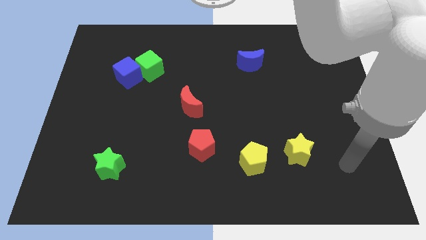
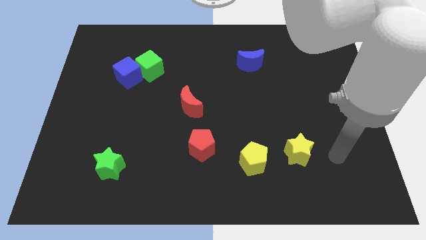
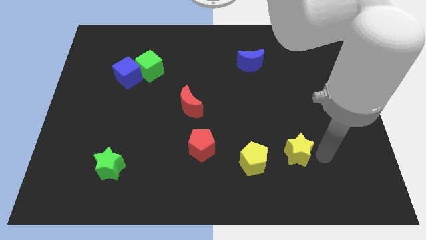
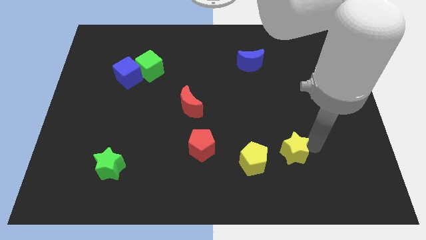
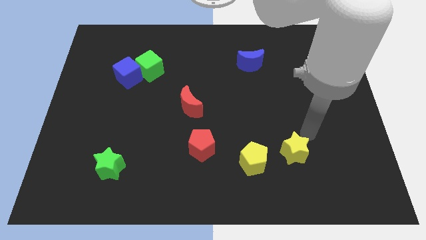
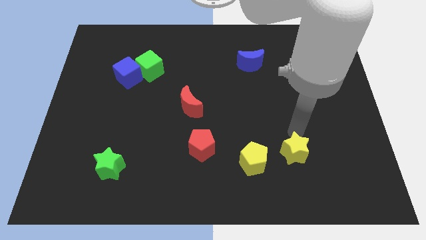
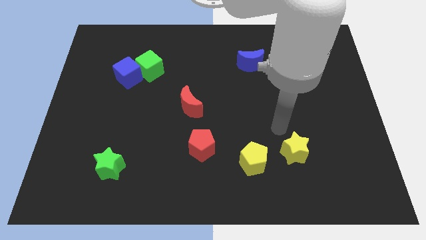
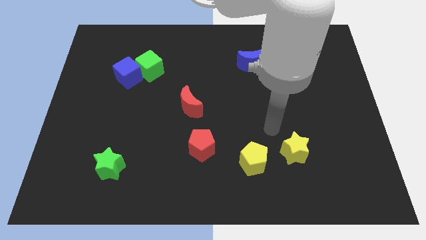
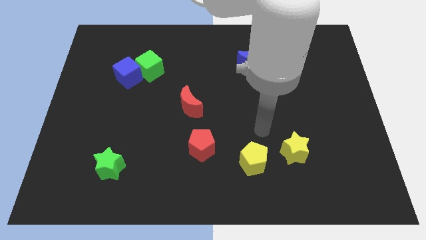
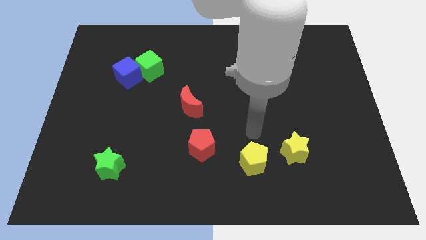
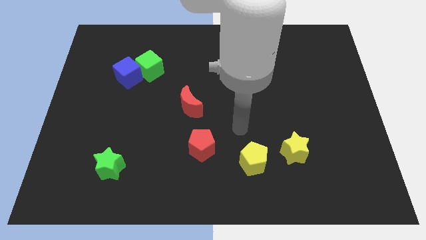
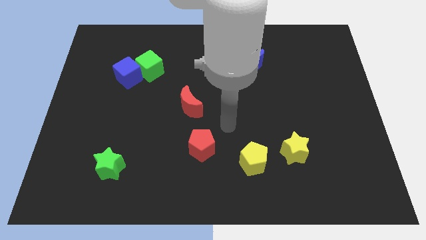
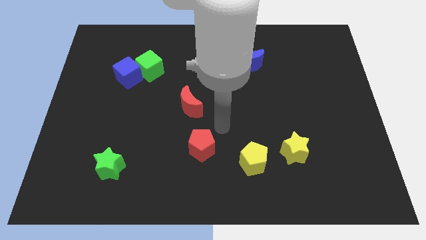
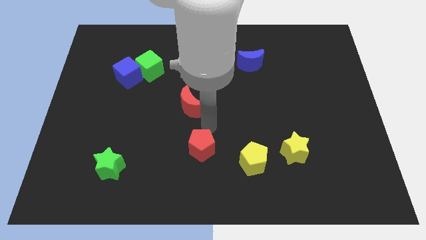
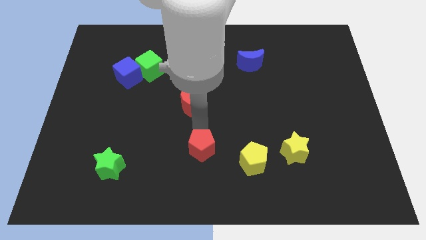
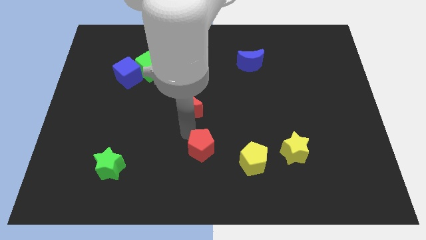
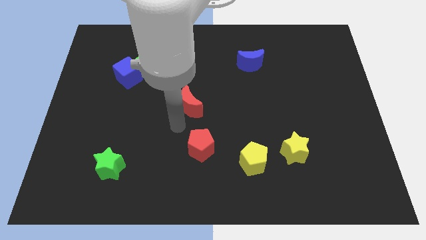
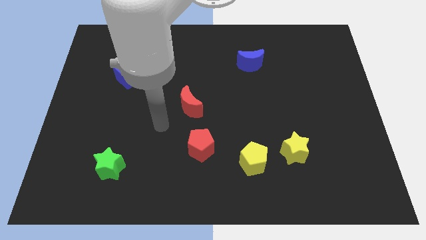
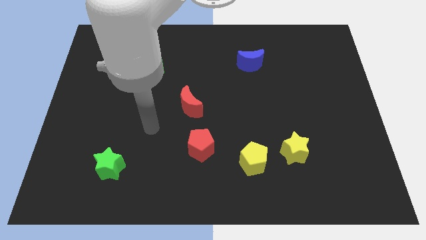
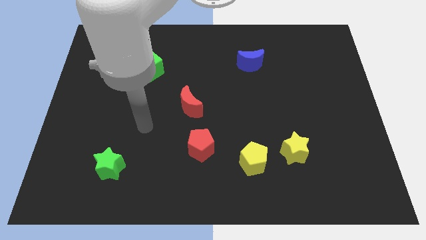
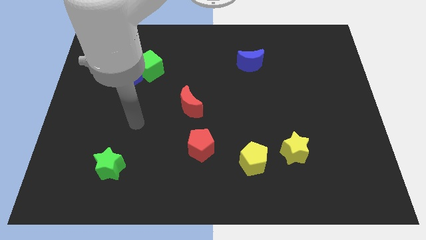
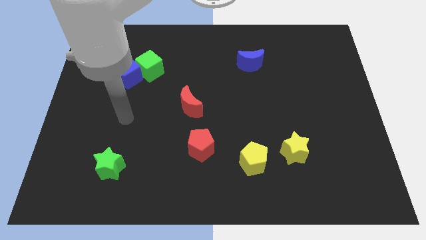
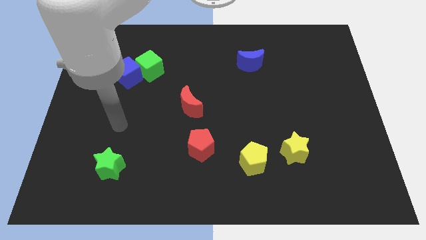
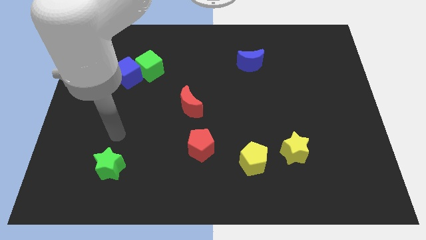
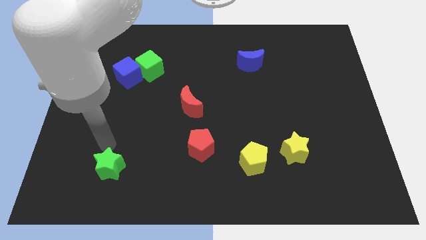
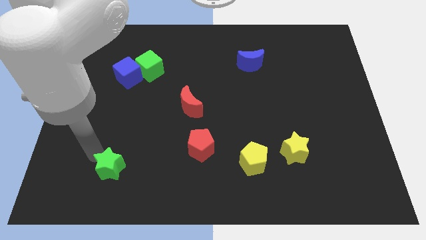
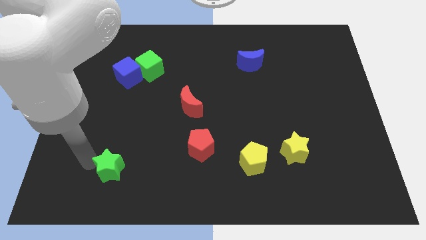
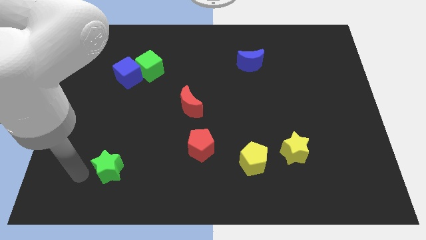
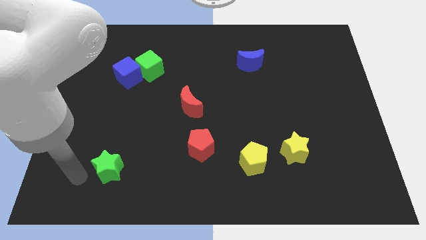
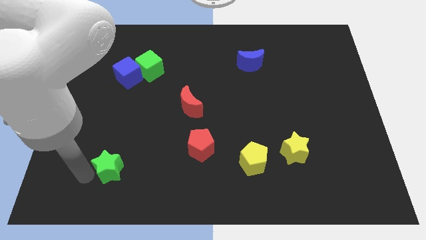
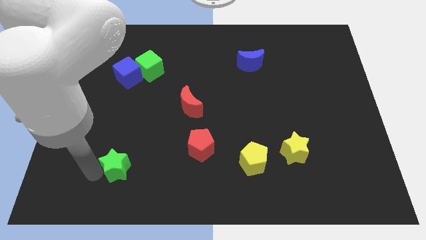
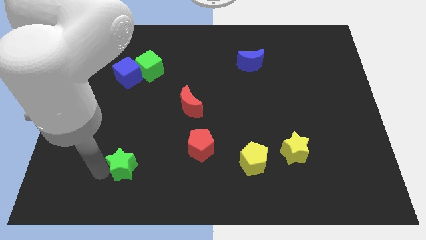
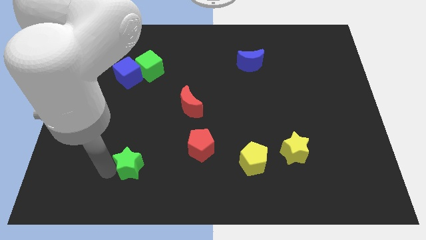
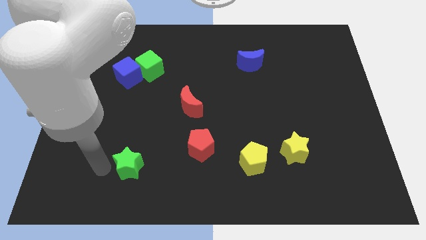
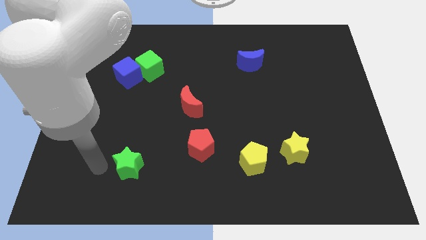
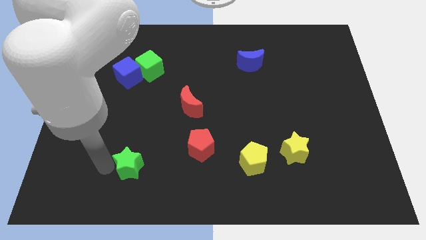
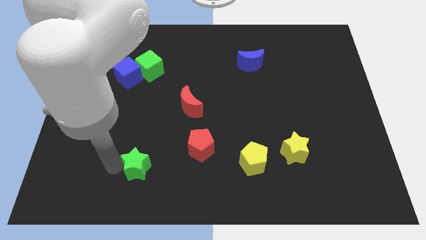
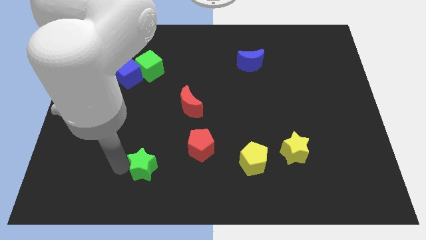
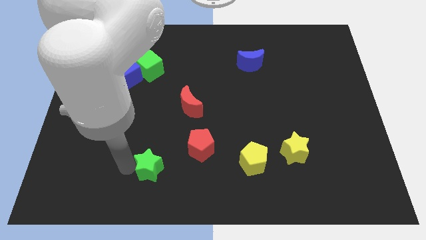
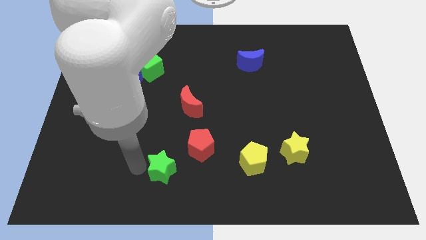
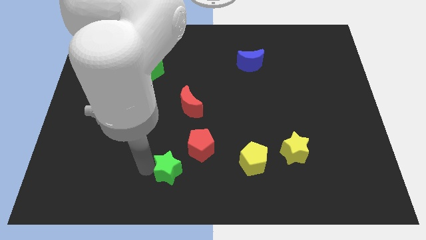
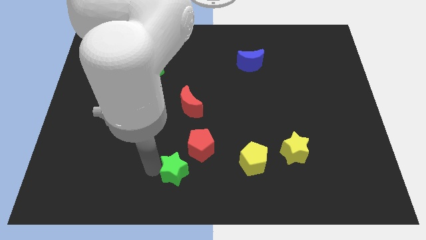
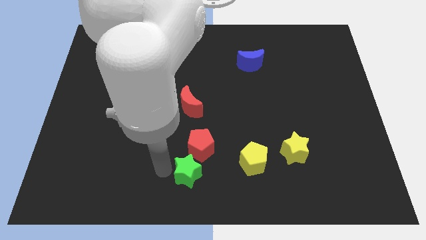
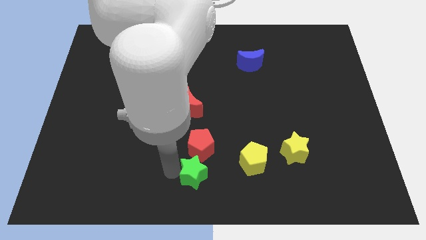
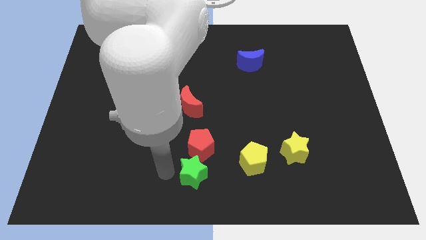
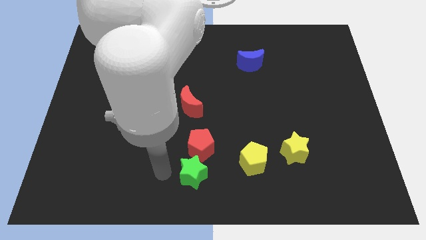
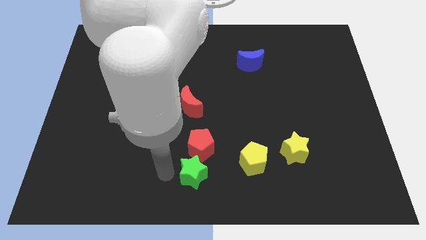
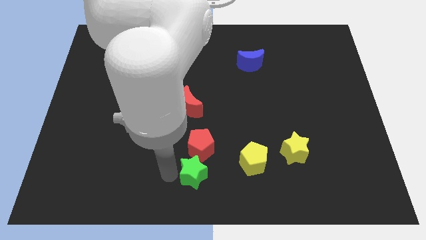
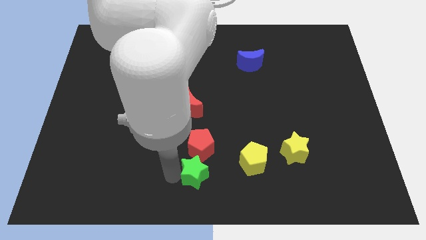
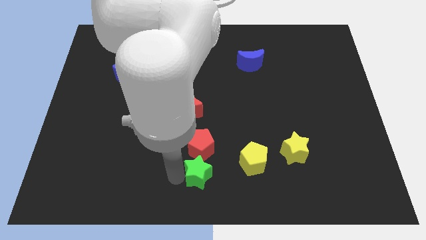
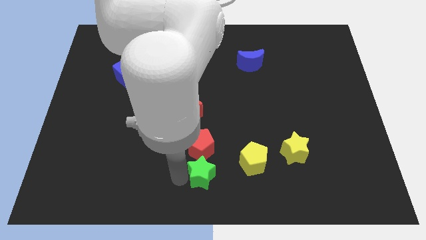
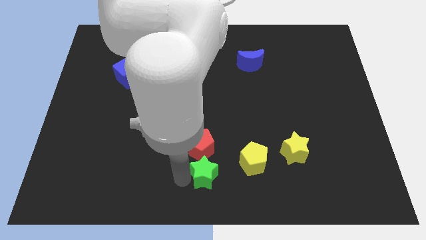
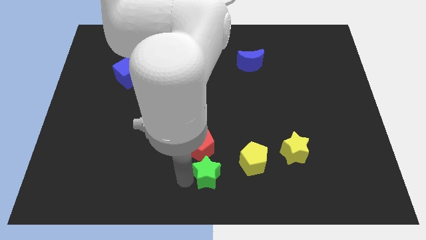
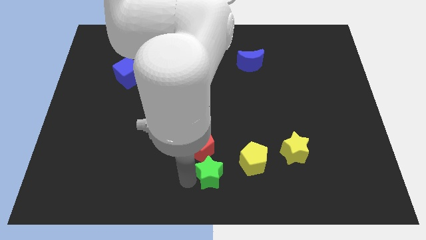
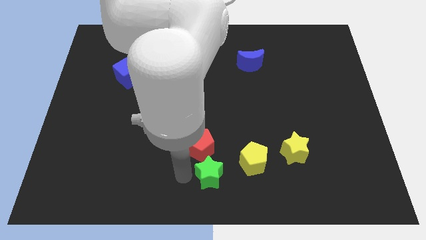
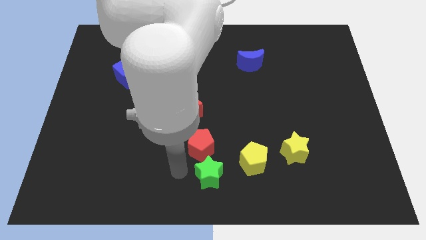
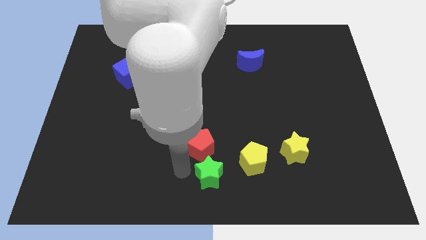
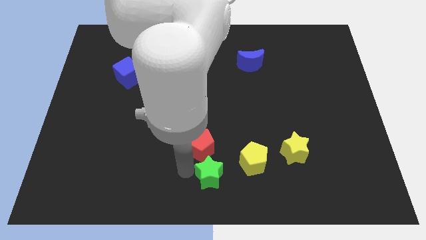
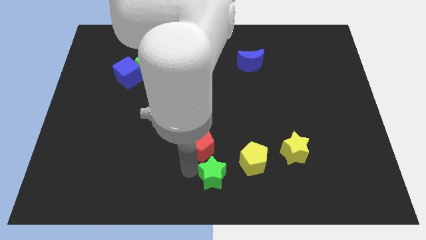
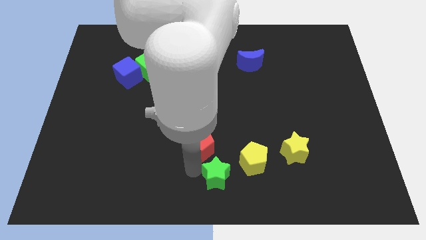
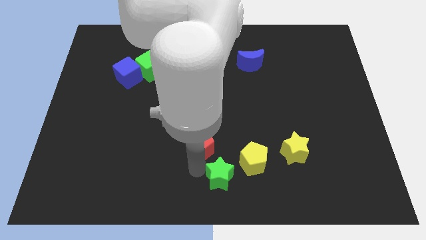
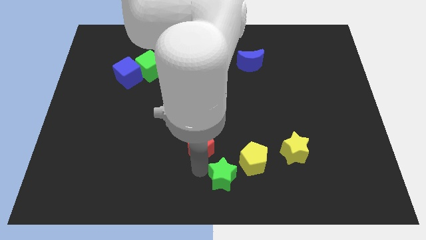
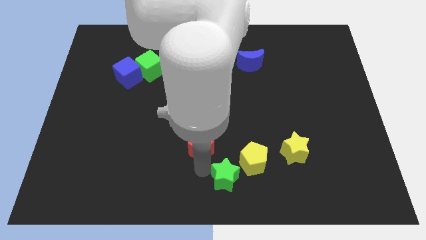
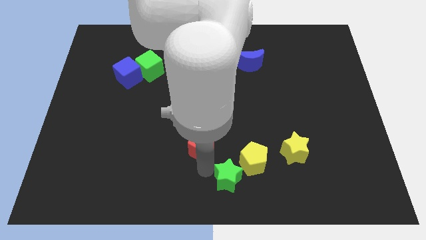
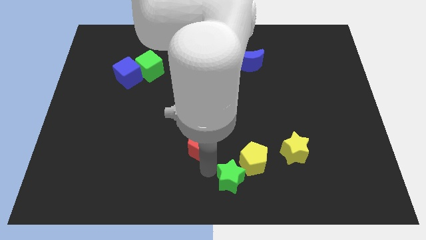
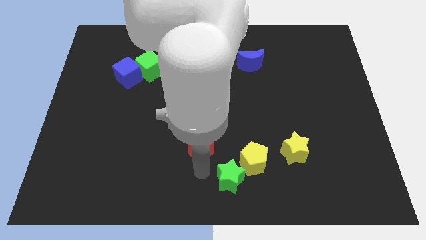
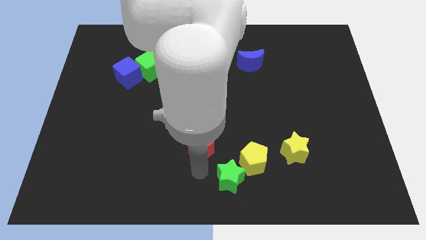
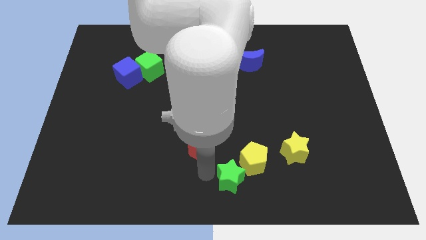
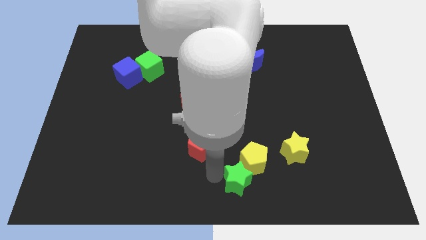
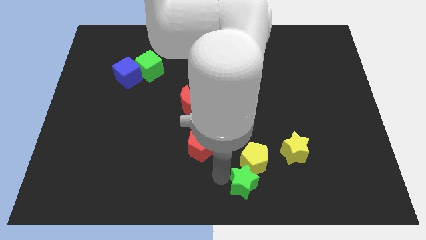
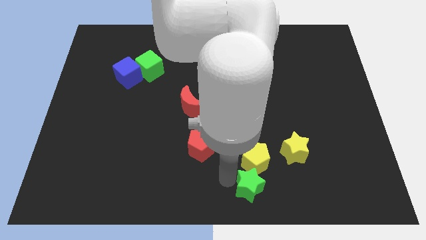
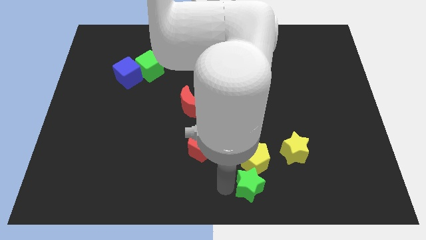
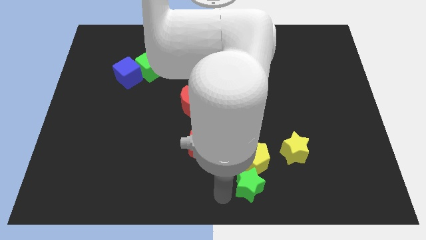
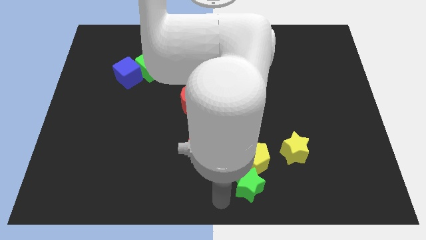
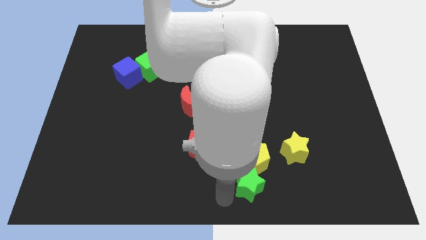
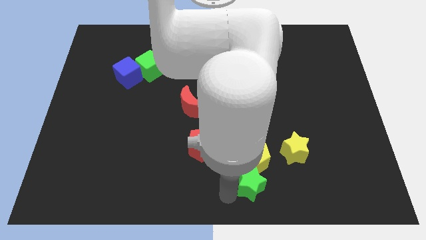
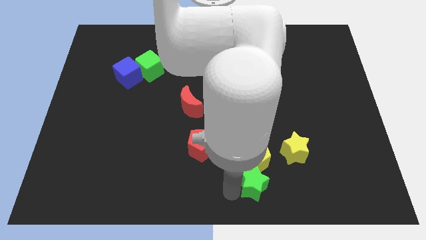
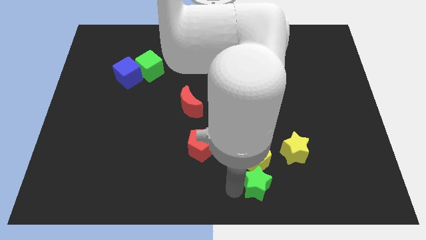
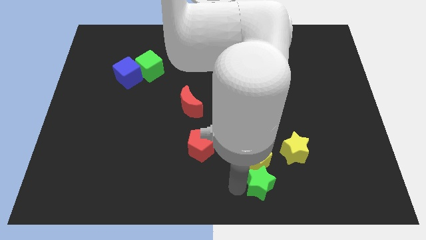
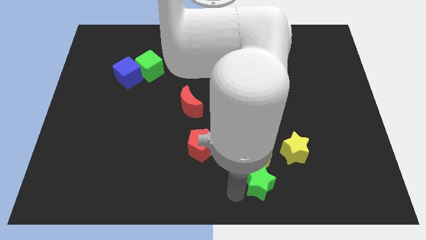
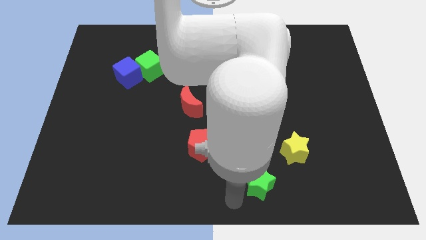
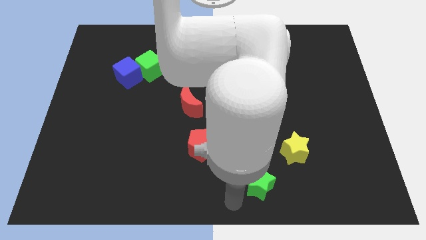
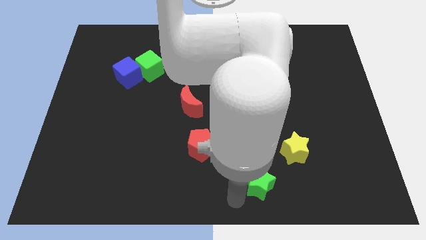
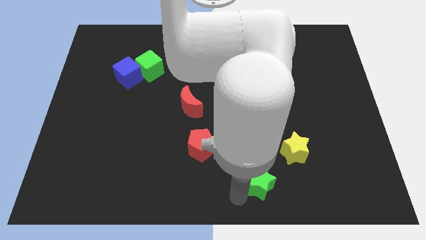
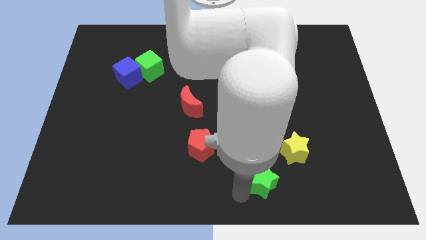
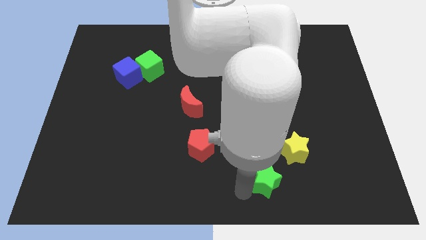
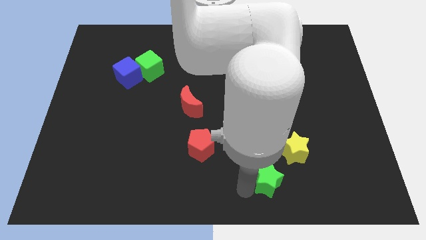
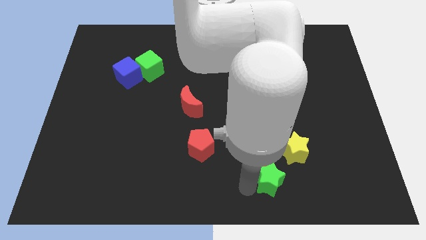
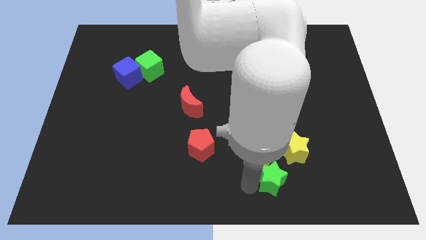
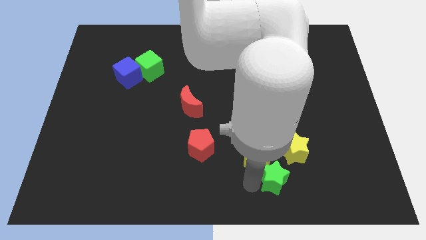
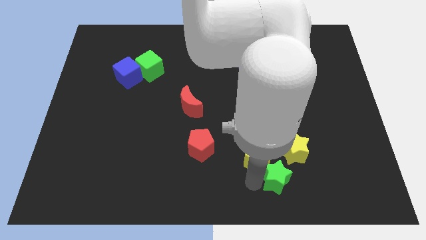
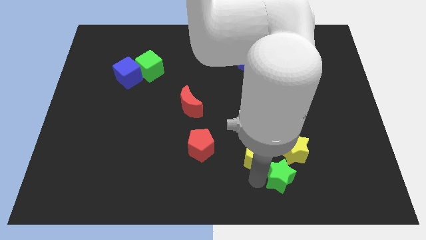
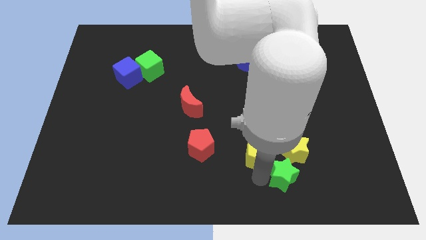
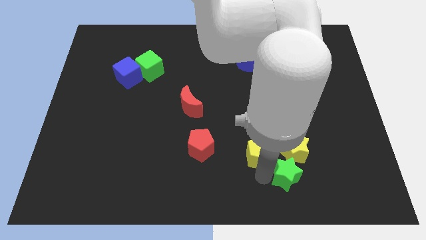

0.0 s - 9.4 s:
slide the green star next to the yellow star
